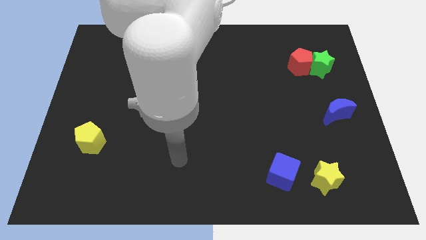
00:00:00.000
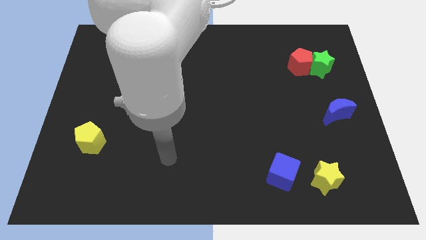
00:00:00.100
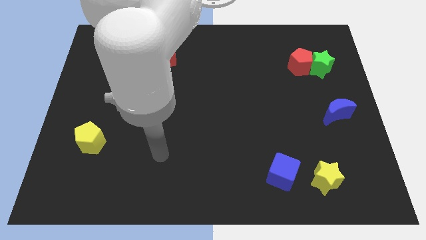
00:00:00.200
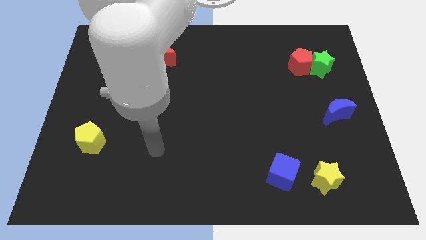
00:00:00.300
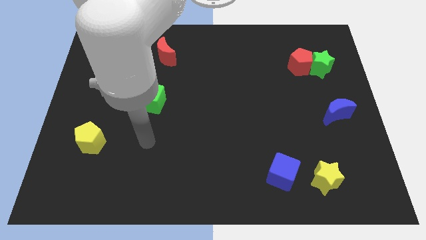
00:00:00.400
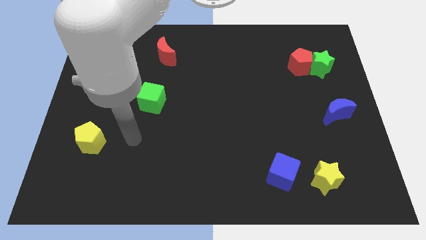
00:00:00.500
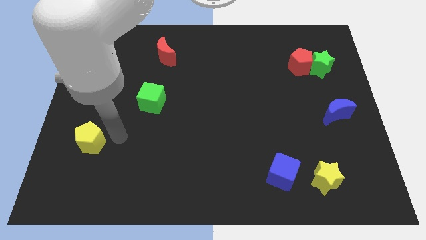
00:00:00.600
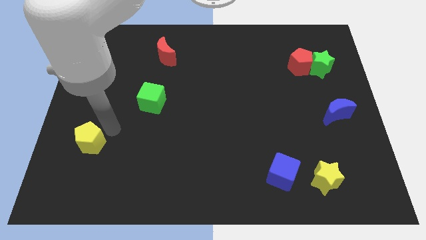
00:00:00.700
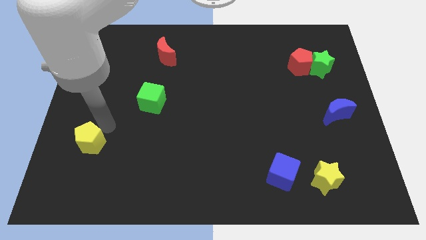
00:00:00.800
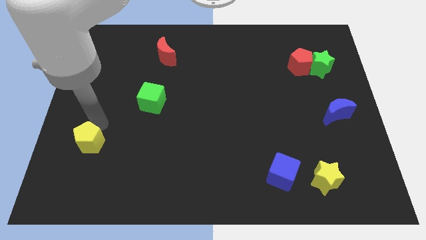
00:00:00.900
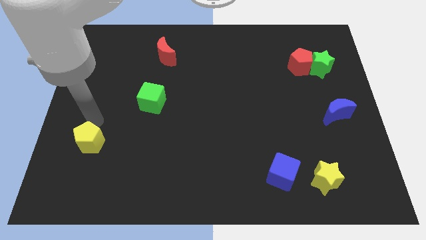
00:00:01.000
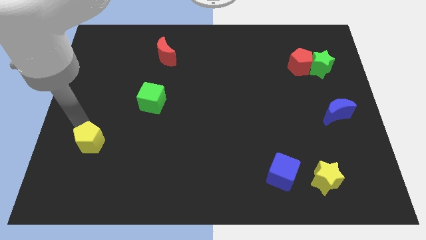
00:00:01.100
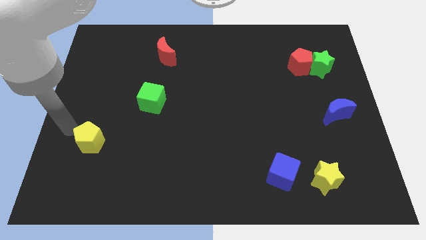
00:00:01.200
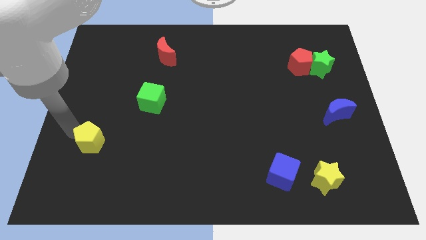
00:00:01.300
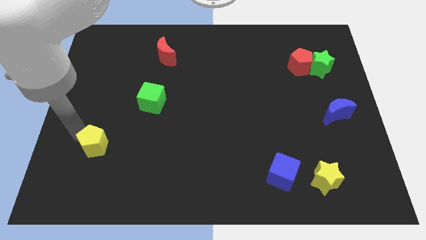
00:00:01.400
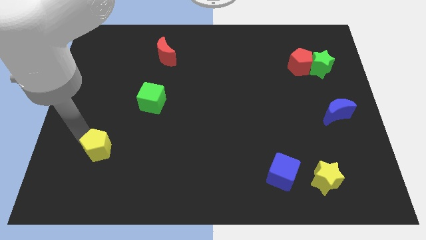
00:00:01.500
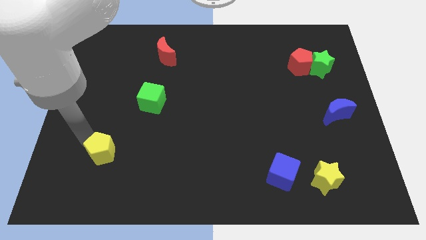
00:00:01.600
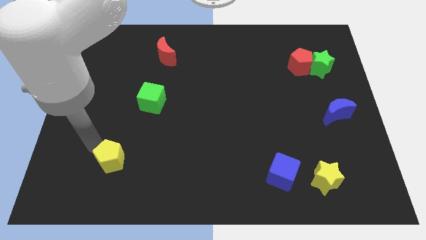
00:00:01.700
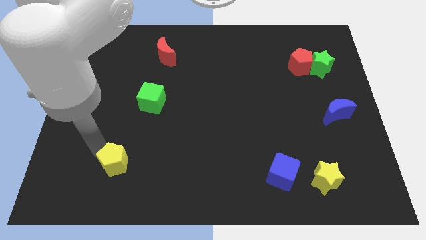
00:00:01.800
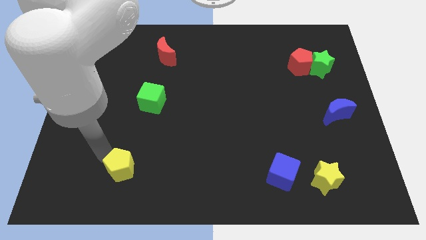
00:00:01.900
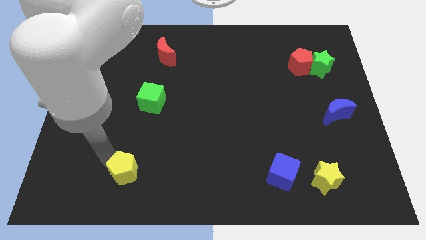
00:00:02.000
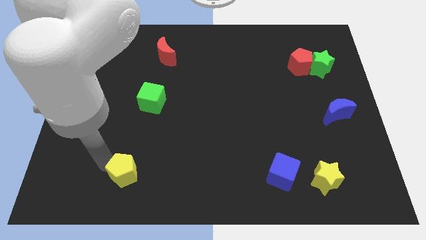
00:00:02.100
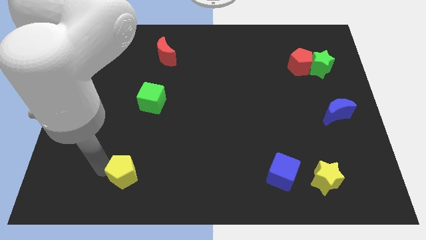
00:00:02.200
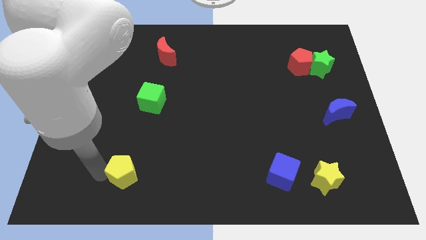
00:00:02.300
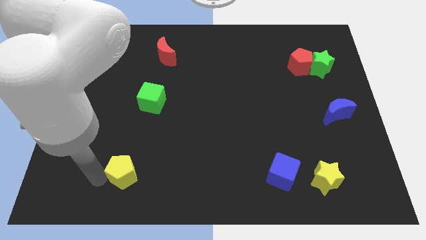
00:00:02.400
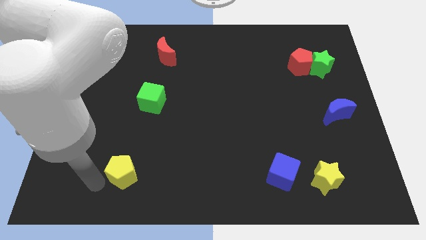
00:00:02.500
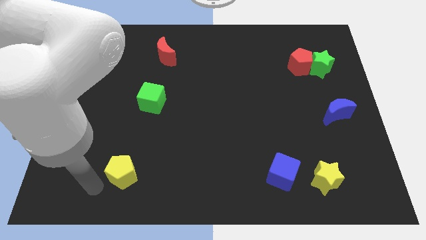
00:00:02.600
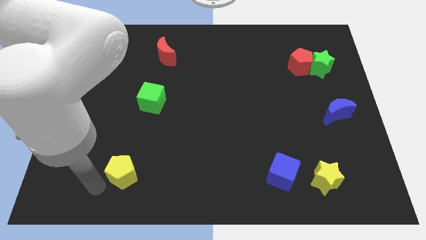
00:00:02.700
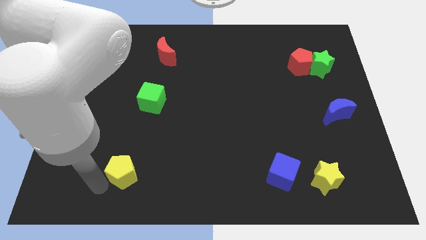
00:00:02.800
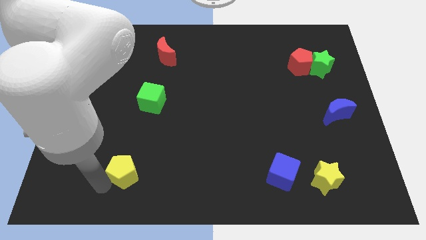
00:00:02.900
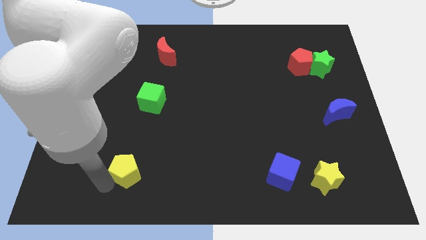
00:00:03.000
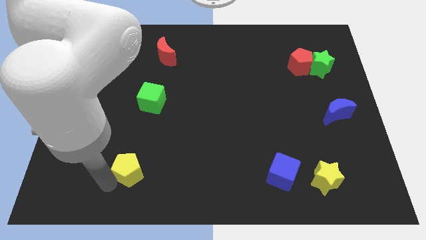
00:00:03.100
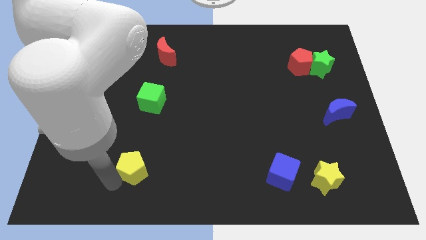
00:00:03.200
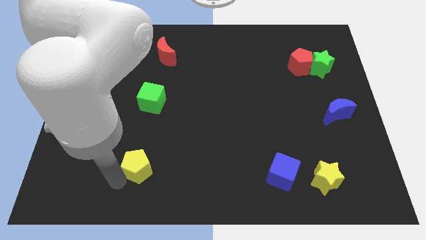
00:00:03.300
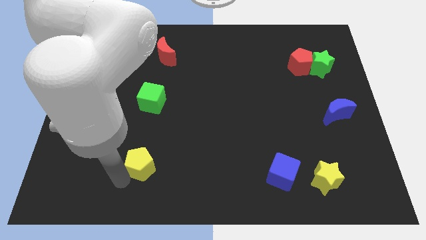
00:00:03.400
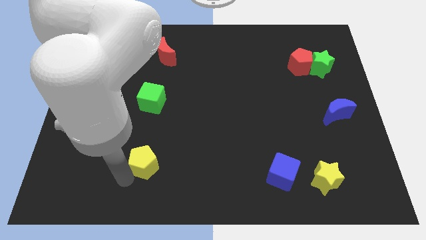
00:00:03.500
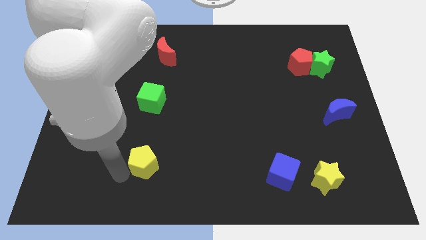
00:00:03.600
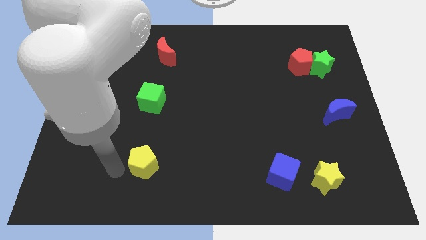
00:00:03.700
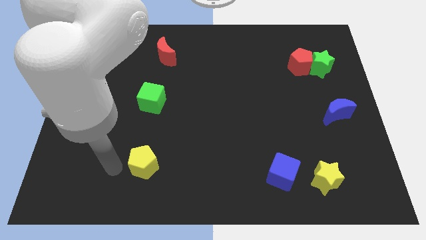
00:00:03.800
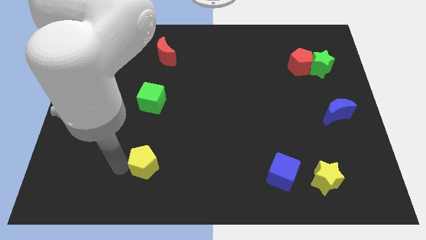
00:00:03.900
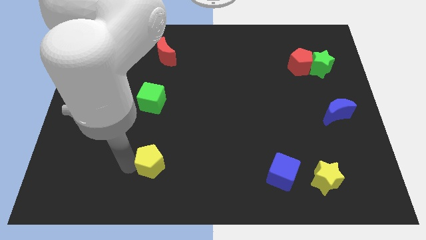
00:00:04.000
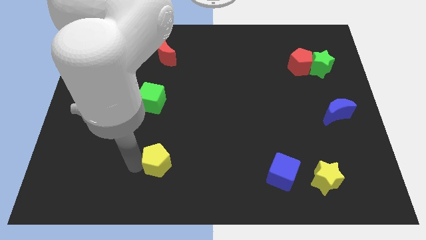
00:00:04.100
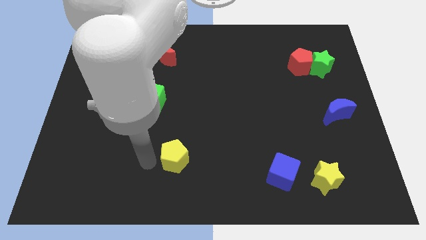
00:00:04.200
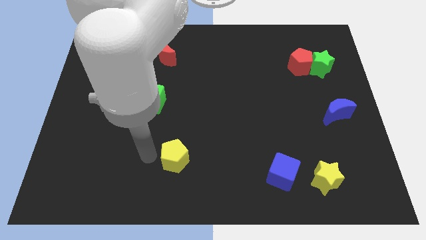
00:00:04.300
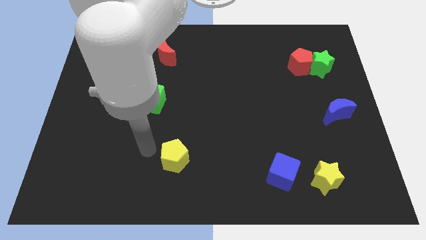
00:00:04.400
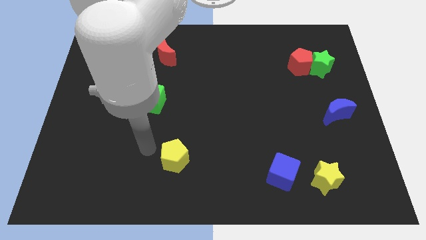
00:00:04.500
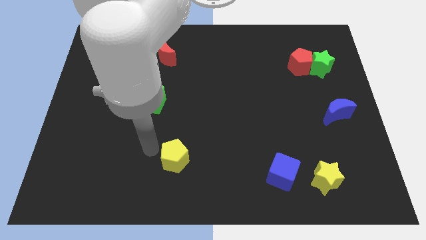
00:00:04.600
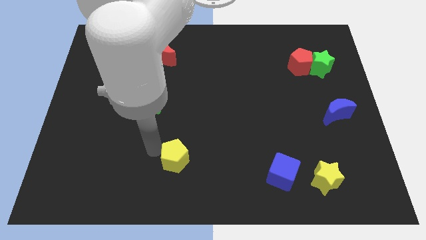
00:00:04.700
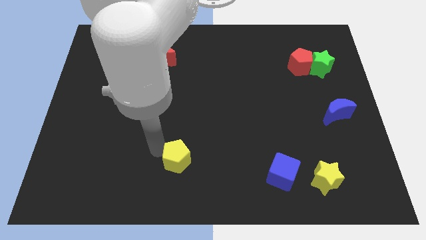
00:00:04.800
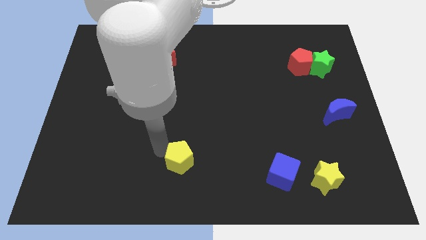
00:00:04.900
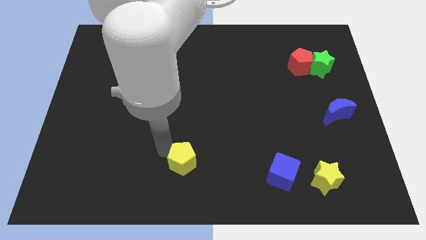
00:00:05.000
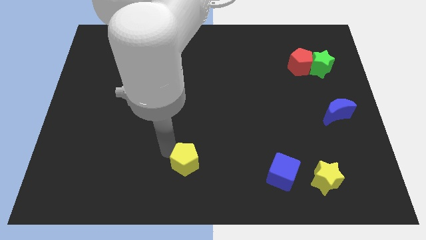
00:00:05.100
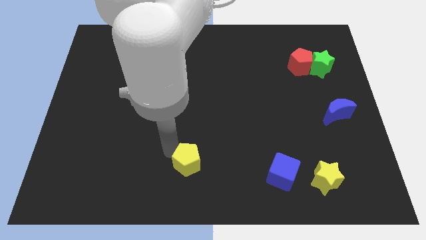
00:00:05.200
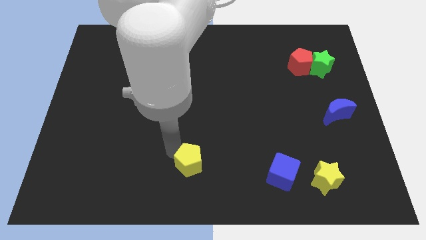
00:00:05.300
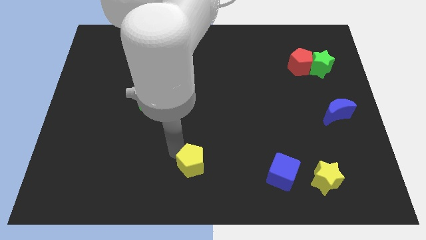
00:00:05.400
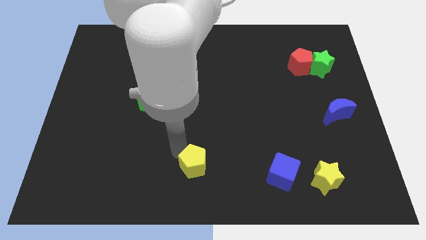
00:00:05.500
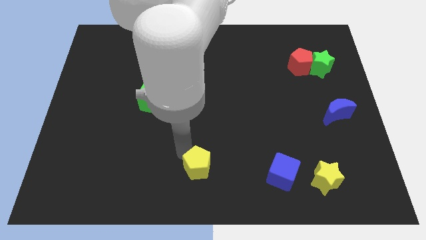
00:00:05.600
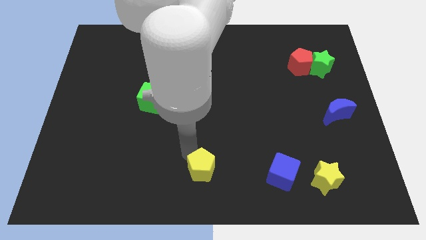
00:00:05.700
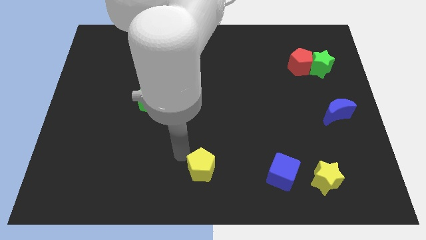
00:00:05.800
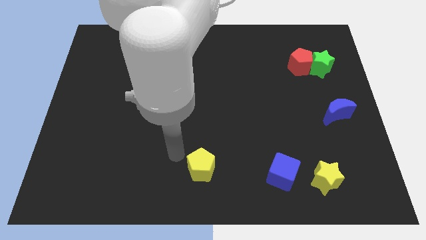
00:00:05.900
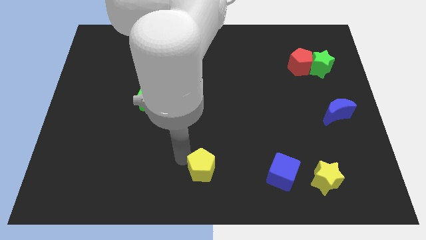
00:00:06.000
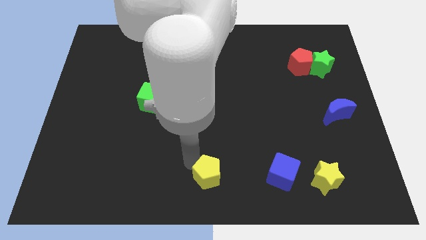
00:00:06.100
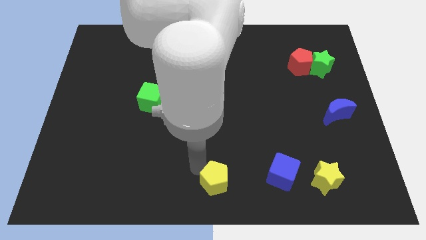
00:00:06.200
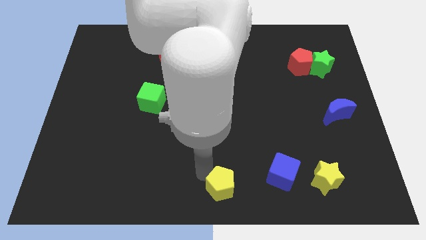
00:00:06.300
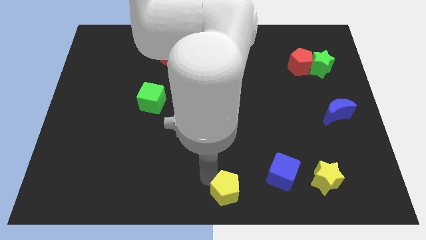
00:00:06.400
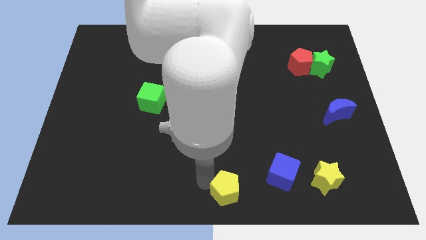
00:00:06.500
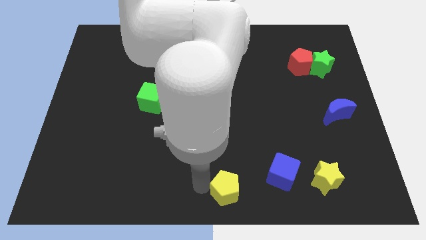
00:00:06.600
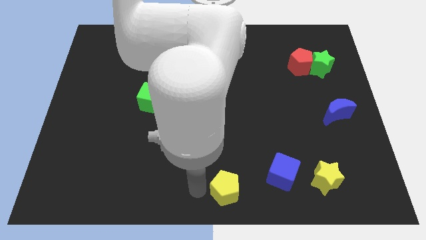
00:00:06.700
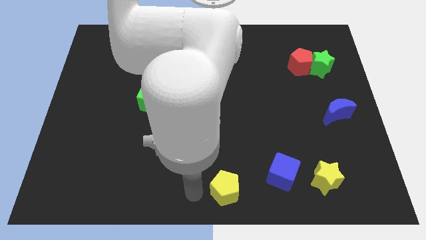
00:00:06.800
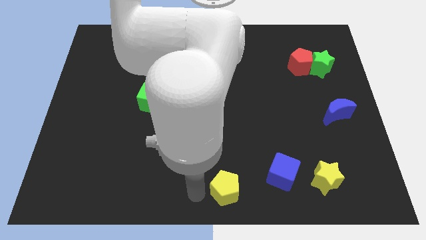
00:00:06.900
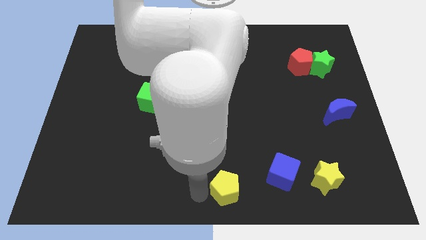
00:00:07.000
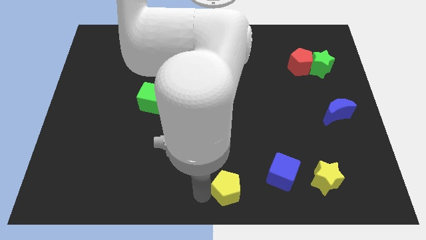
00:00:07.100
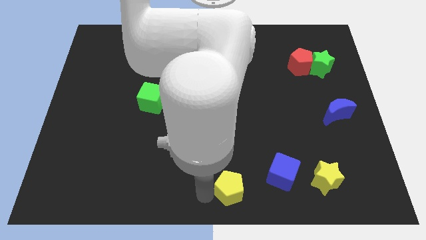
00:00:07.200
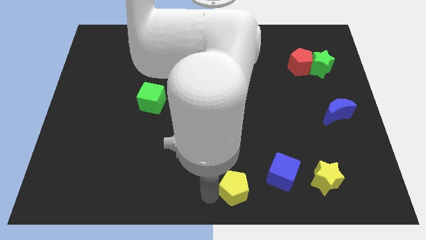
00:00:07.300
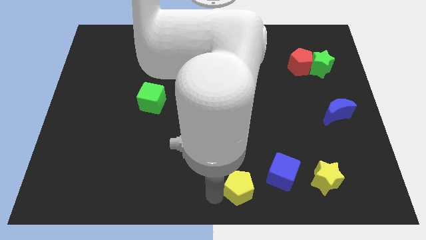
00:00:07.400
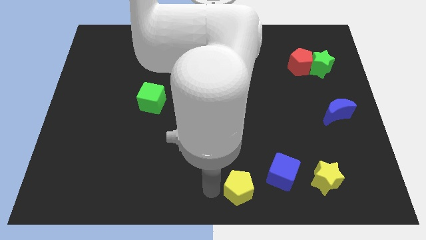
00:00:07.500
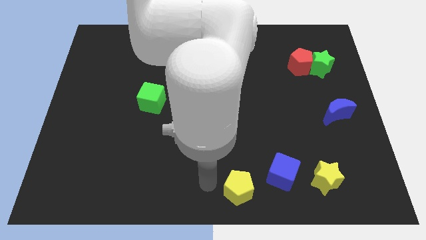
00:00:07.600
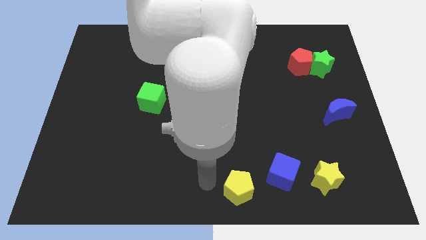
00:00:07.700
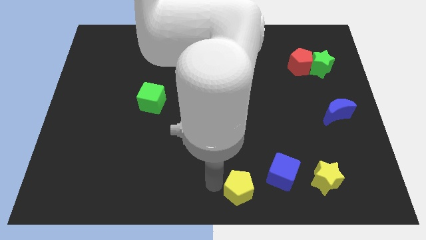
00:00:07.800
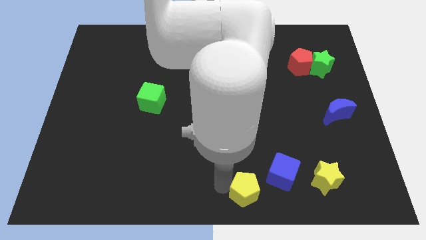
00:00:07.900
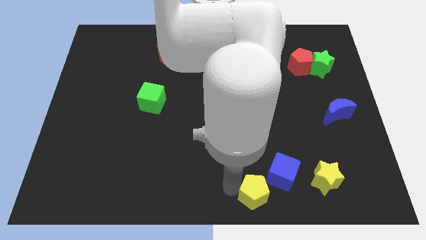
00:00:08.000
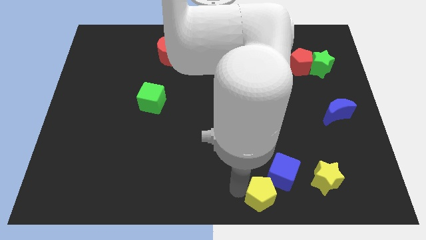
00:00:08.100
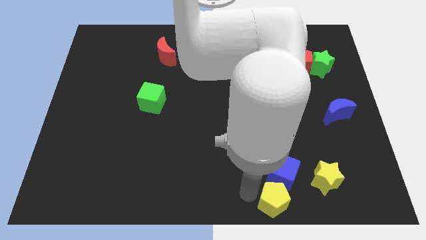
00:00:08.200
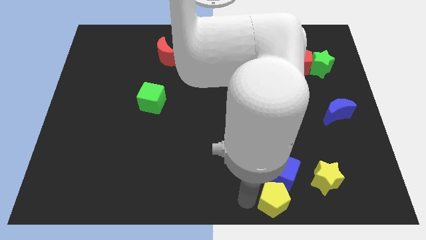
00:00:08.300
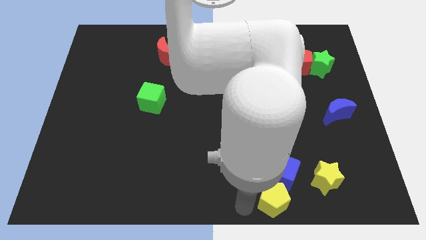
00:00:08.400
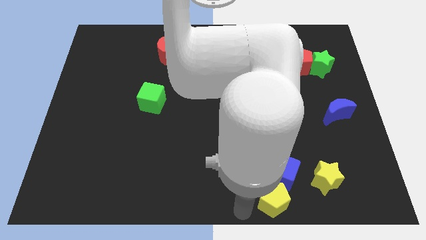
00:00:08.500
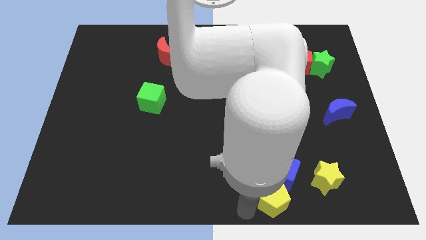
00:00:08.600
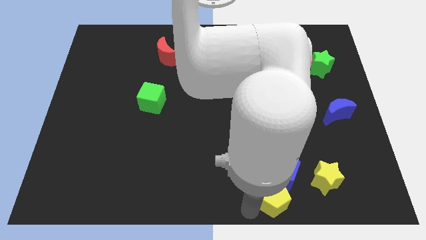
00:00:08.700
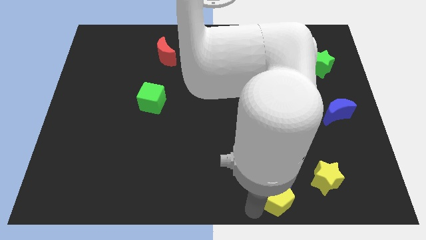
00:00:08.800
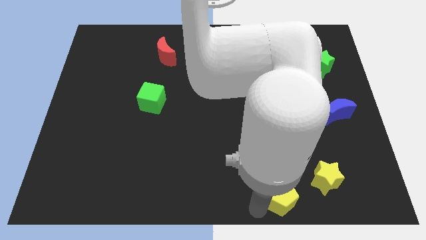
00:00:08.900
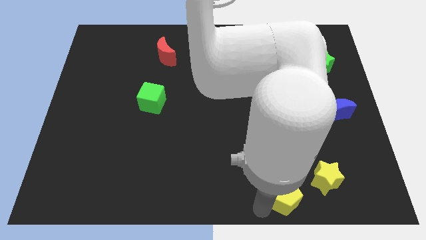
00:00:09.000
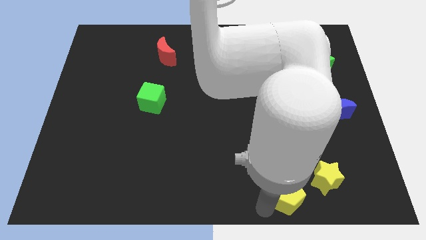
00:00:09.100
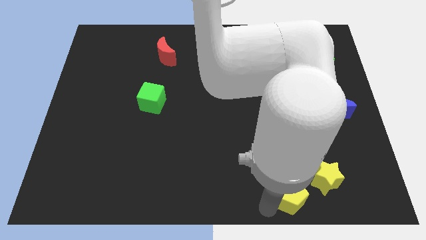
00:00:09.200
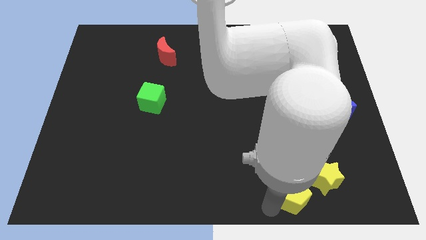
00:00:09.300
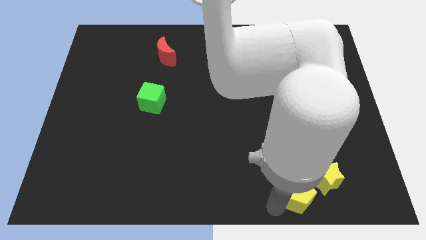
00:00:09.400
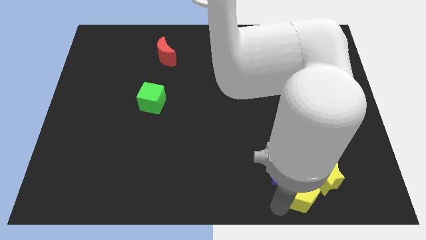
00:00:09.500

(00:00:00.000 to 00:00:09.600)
slide the yellow pentagon close to the yellow star
